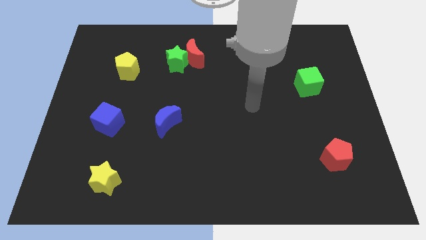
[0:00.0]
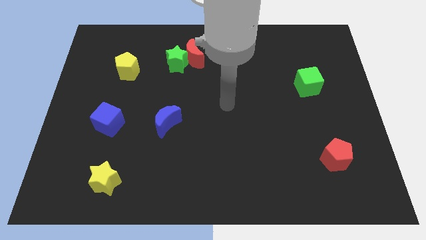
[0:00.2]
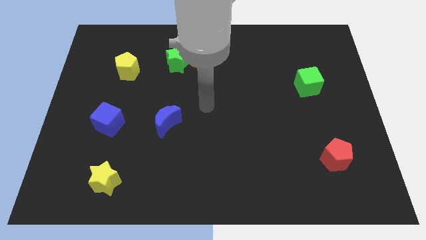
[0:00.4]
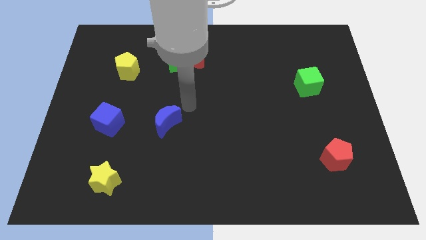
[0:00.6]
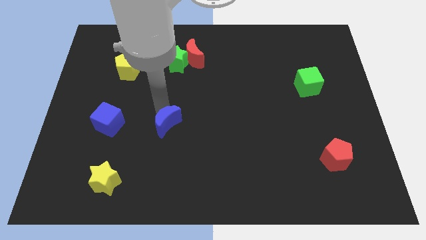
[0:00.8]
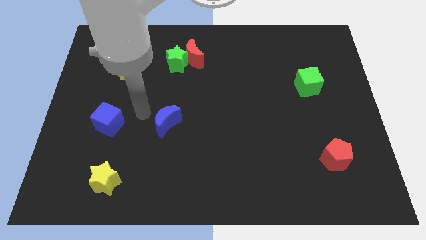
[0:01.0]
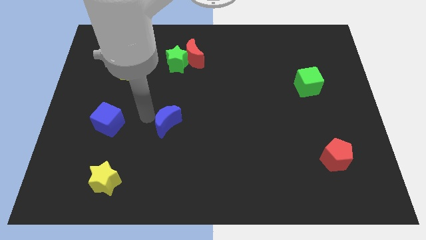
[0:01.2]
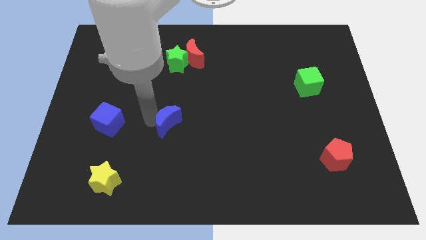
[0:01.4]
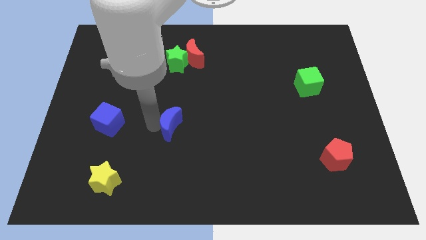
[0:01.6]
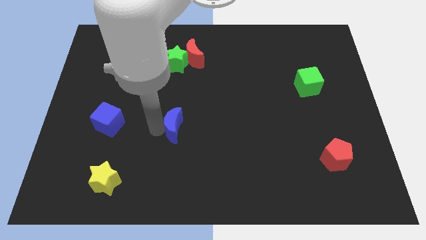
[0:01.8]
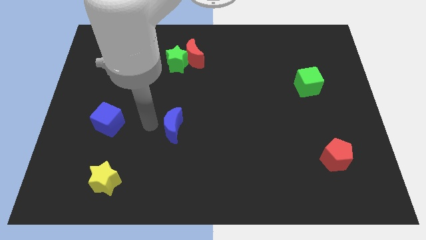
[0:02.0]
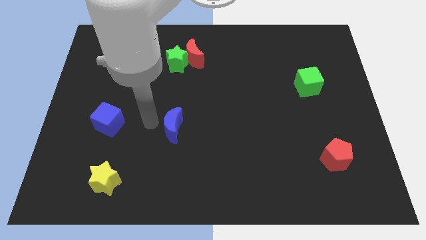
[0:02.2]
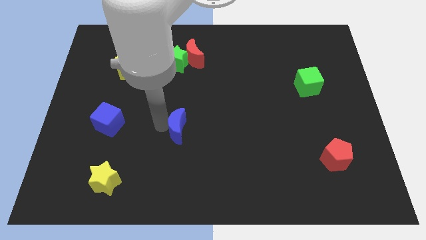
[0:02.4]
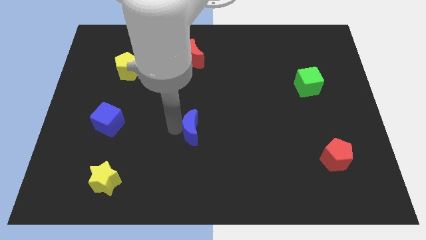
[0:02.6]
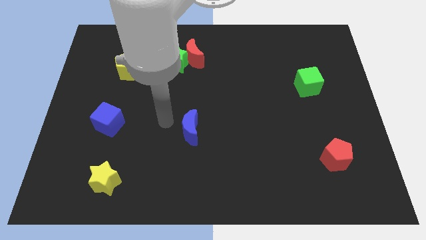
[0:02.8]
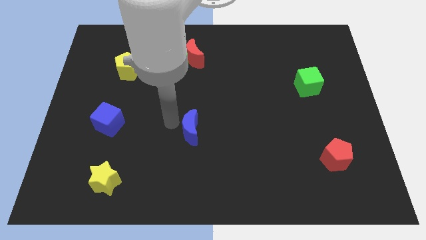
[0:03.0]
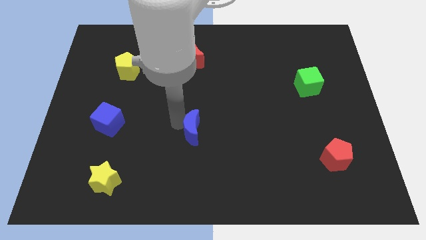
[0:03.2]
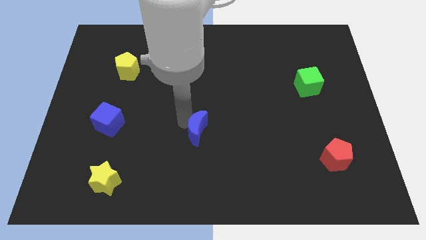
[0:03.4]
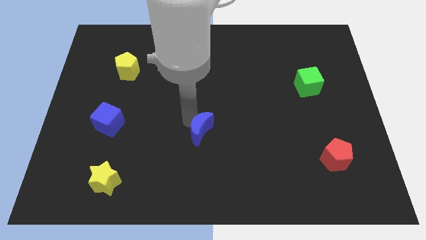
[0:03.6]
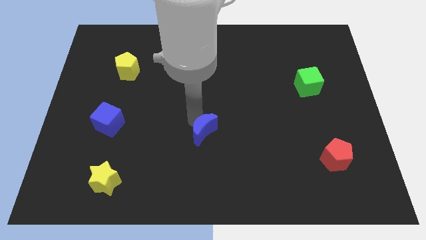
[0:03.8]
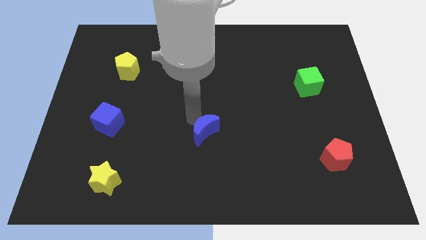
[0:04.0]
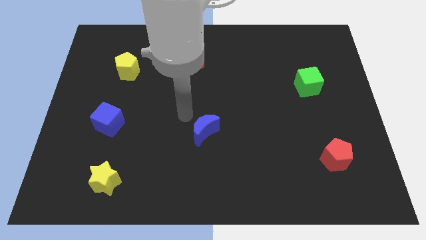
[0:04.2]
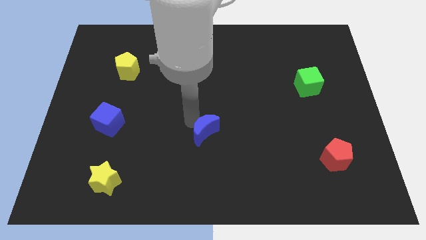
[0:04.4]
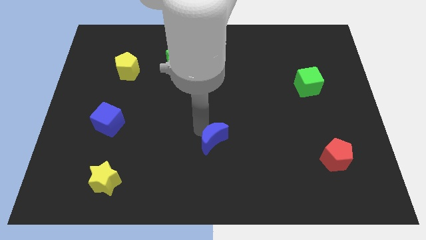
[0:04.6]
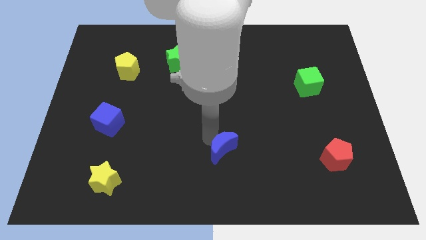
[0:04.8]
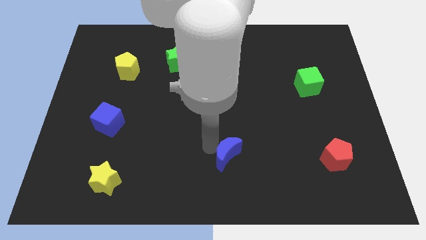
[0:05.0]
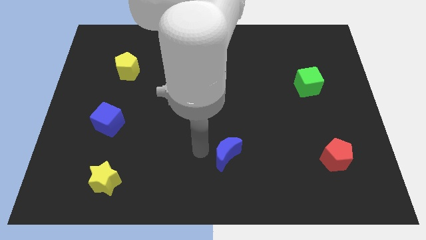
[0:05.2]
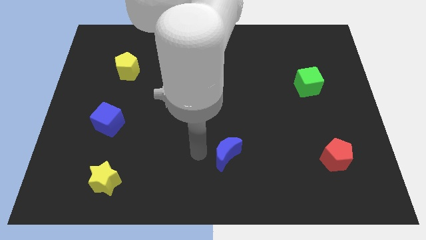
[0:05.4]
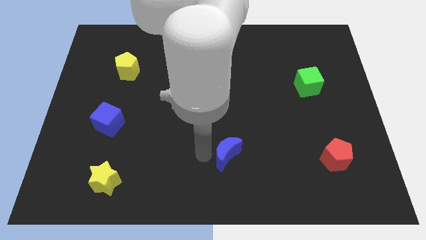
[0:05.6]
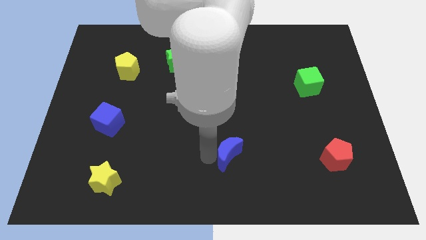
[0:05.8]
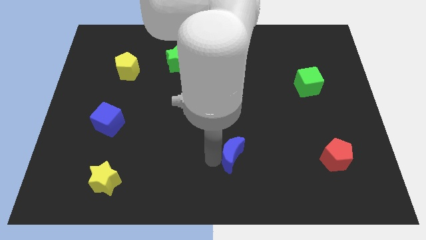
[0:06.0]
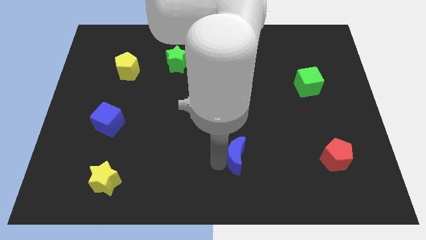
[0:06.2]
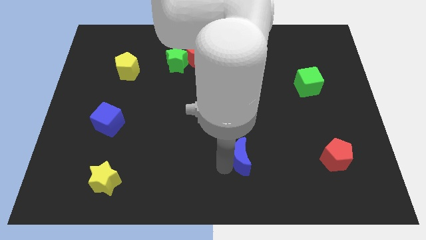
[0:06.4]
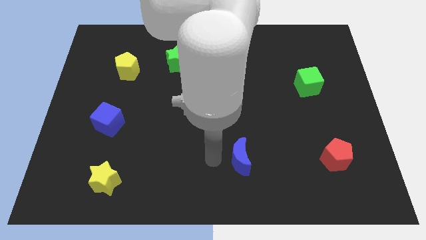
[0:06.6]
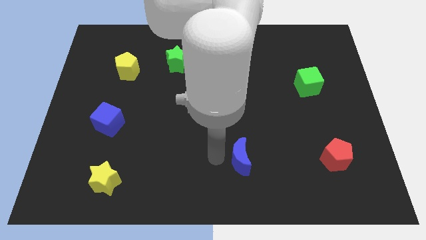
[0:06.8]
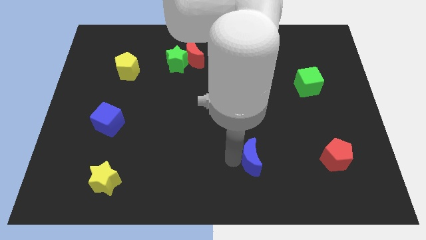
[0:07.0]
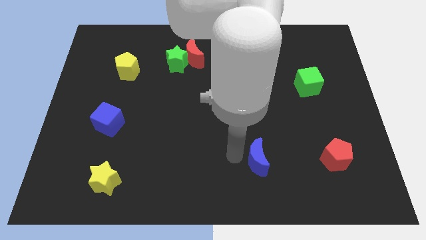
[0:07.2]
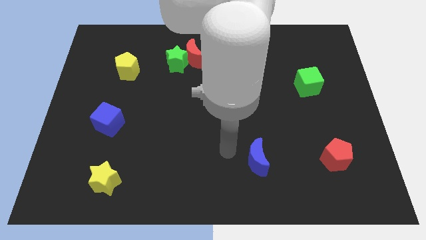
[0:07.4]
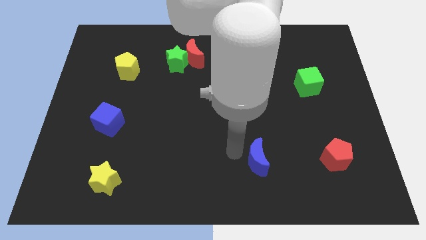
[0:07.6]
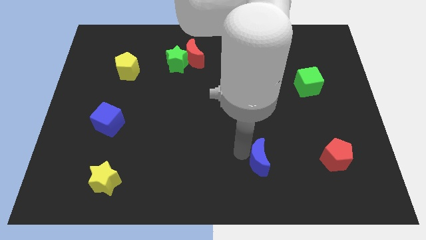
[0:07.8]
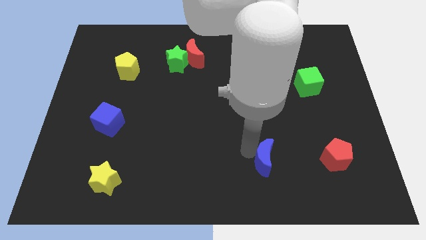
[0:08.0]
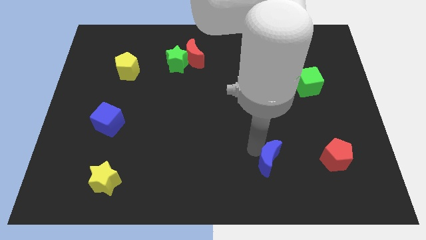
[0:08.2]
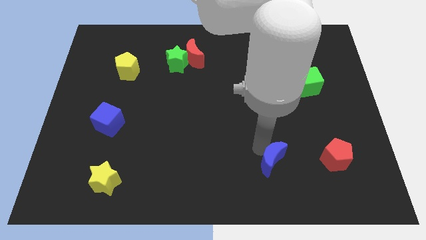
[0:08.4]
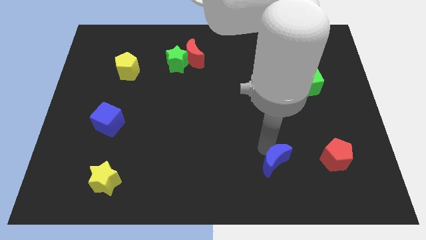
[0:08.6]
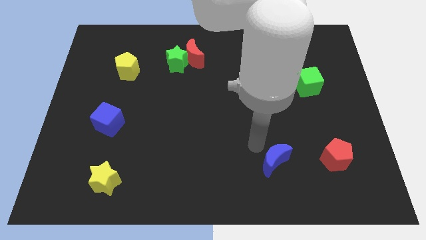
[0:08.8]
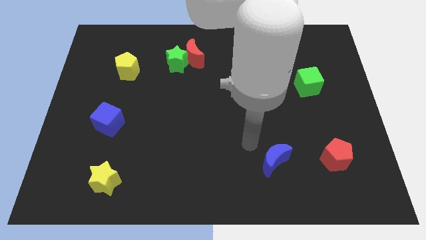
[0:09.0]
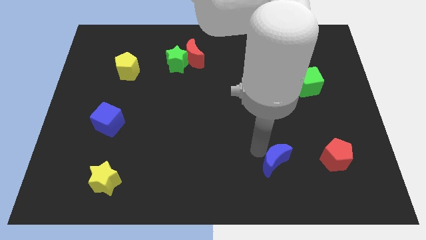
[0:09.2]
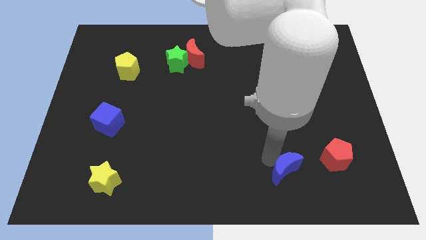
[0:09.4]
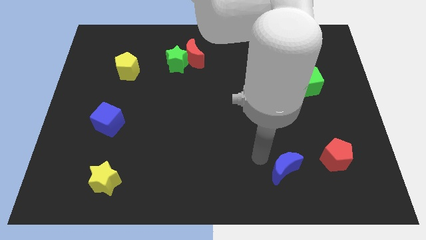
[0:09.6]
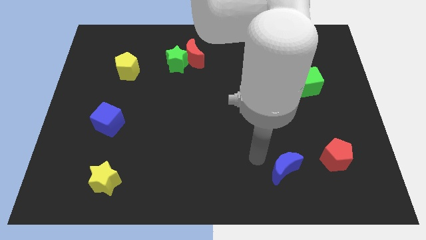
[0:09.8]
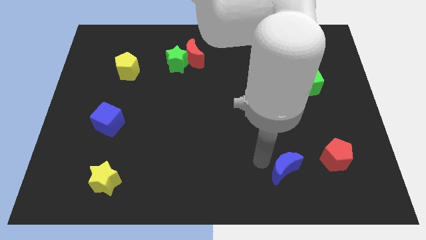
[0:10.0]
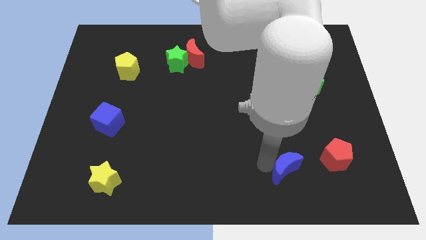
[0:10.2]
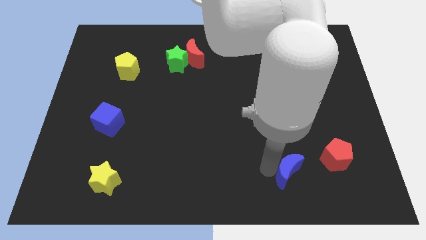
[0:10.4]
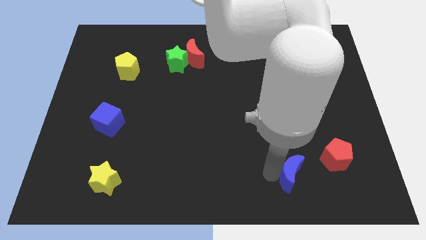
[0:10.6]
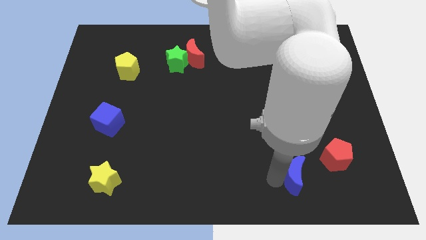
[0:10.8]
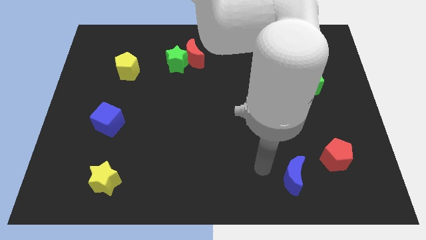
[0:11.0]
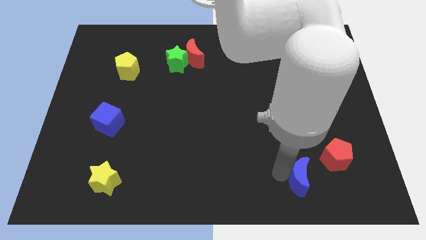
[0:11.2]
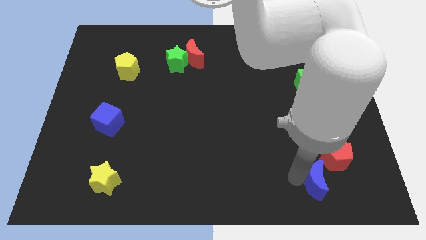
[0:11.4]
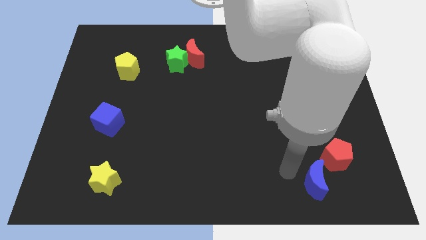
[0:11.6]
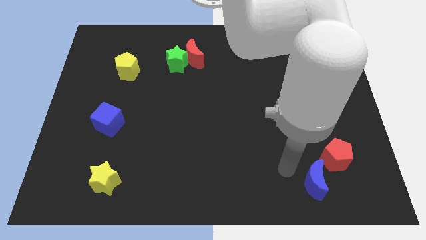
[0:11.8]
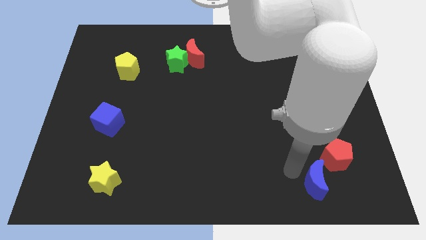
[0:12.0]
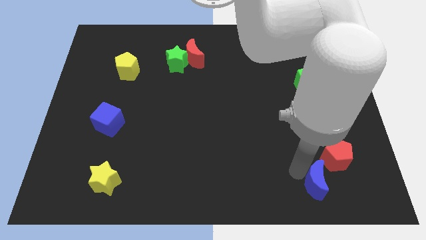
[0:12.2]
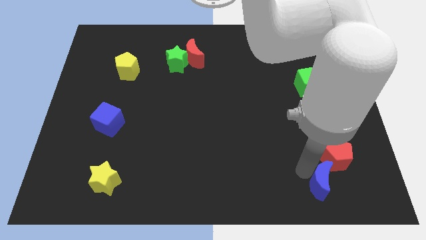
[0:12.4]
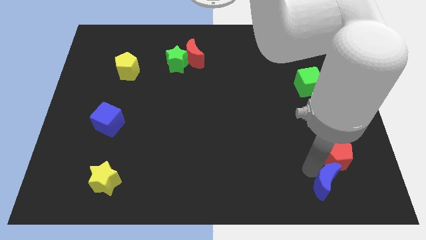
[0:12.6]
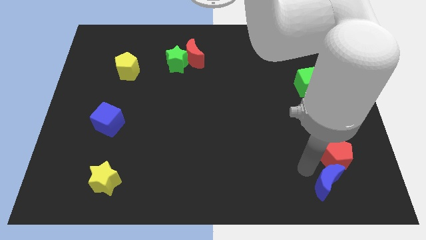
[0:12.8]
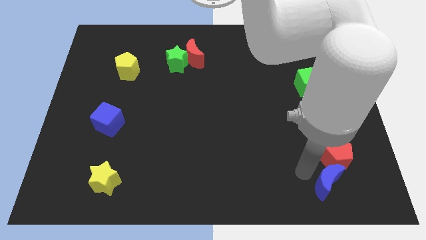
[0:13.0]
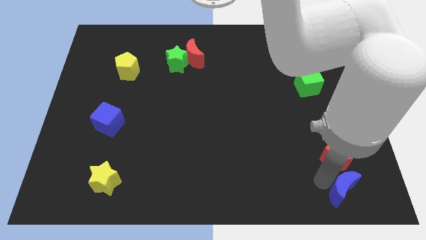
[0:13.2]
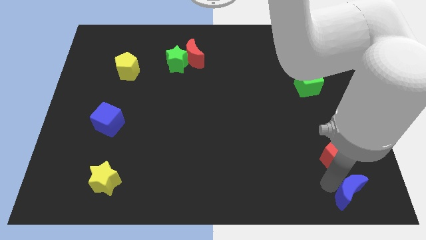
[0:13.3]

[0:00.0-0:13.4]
push the blue moon to the bottom right

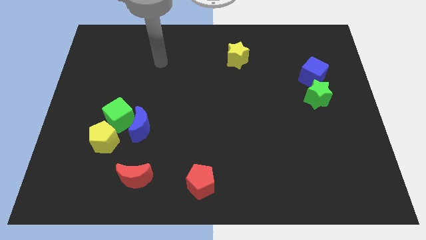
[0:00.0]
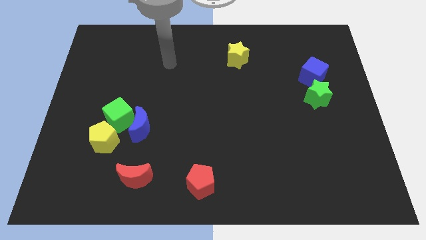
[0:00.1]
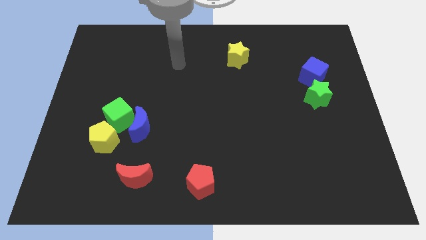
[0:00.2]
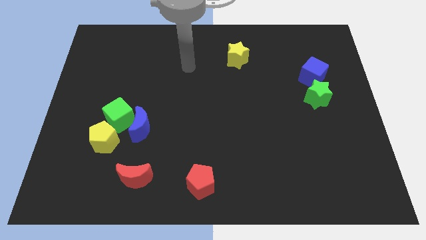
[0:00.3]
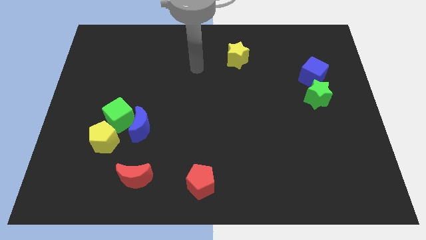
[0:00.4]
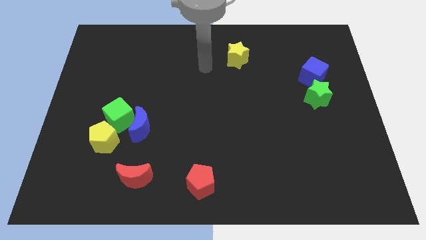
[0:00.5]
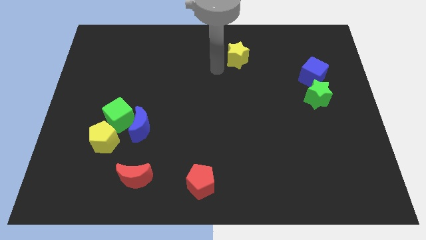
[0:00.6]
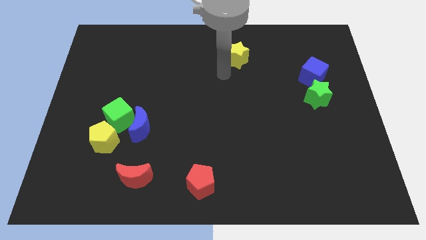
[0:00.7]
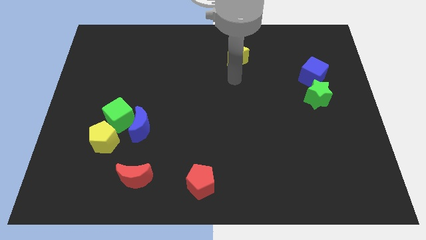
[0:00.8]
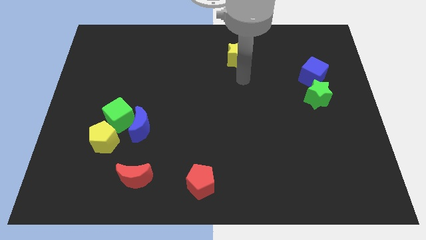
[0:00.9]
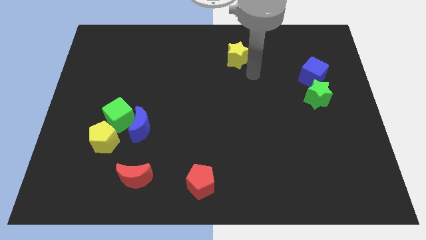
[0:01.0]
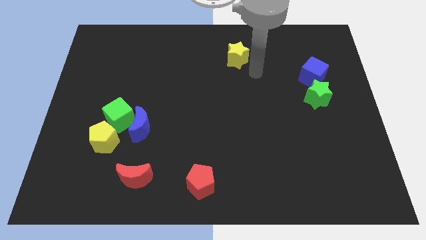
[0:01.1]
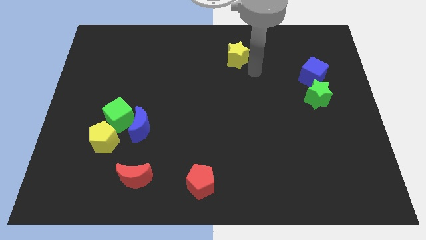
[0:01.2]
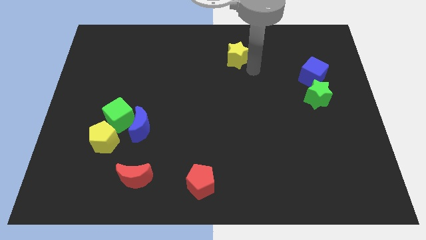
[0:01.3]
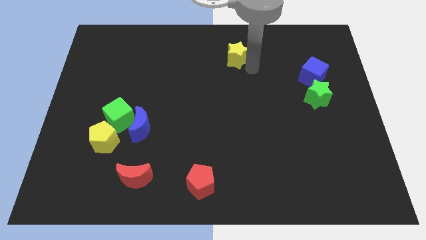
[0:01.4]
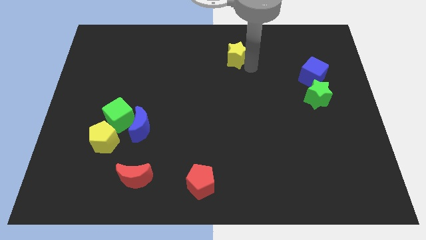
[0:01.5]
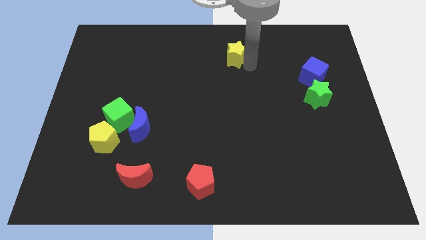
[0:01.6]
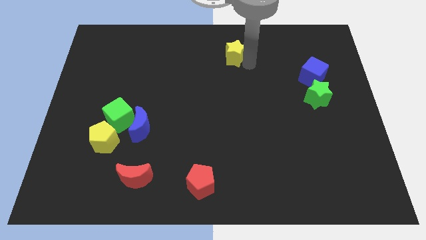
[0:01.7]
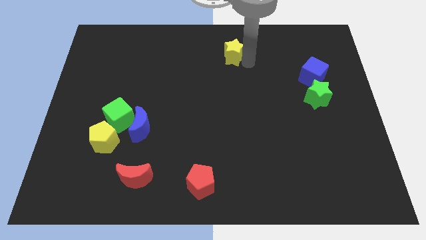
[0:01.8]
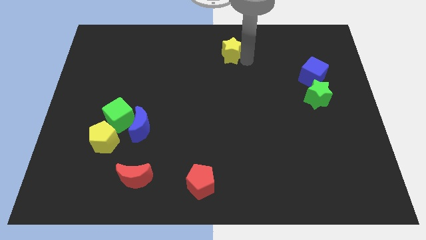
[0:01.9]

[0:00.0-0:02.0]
slide the yellow star to the top side
